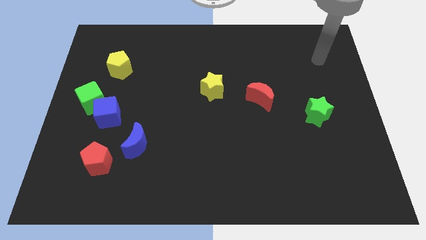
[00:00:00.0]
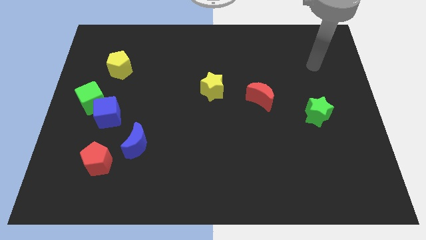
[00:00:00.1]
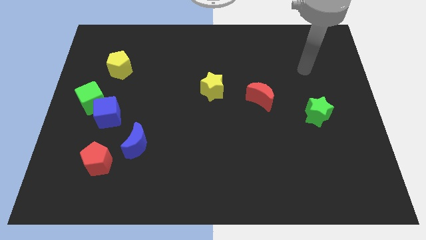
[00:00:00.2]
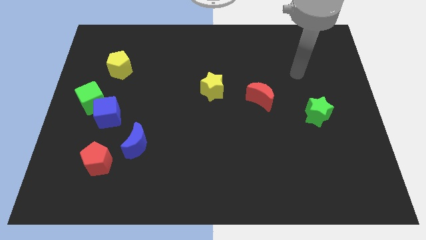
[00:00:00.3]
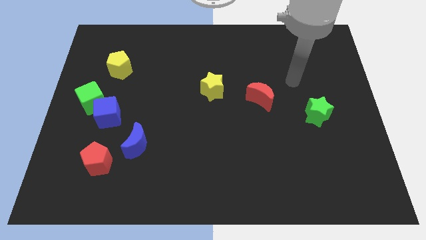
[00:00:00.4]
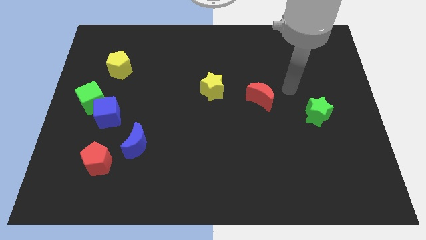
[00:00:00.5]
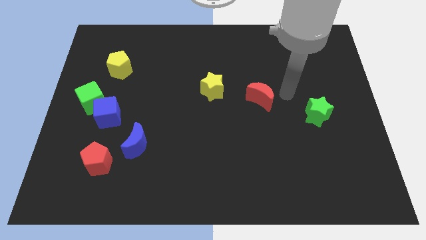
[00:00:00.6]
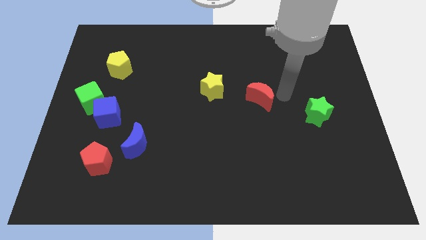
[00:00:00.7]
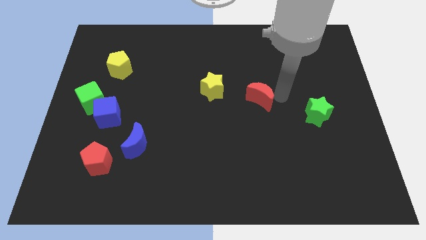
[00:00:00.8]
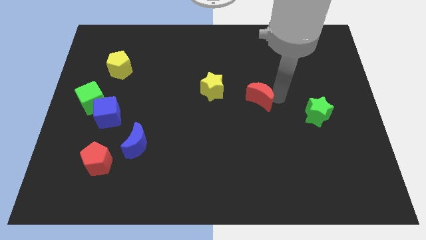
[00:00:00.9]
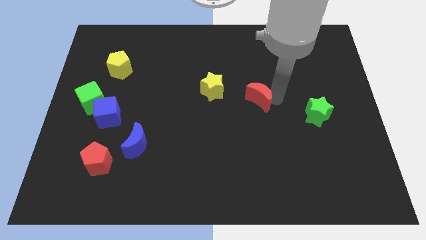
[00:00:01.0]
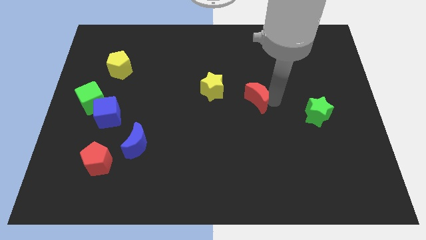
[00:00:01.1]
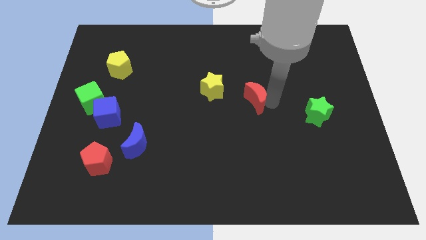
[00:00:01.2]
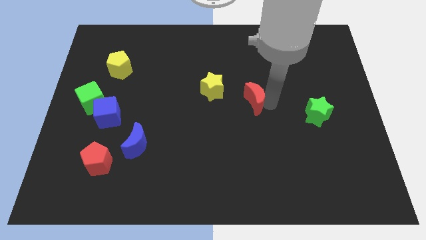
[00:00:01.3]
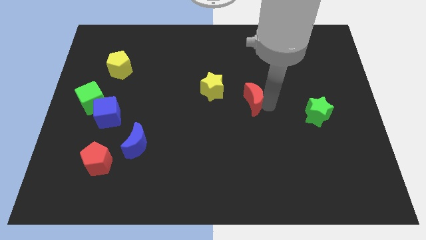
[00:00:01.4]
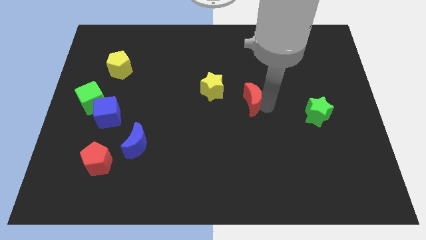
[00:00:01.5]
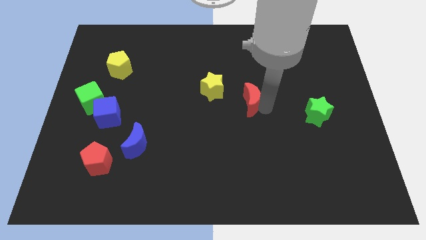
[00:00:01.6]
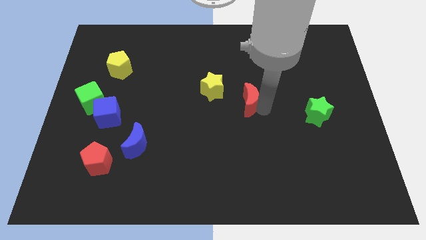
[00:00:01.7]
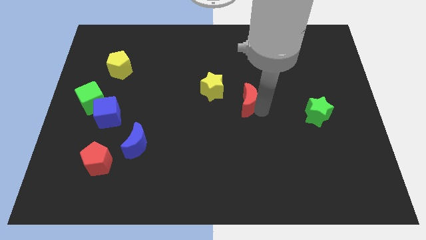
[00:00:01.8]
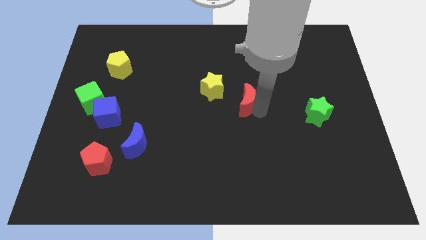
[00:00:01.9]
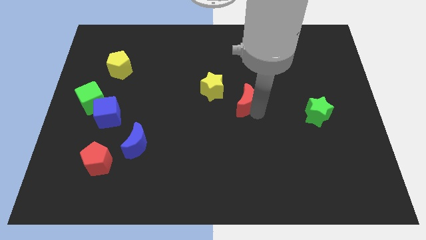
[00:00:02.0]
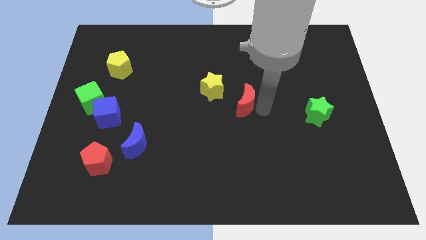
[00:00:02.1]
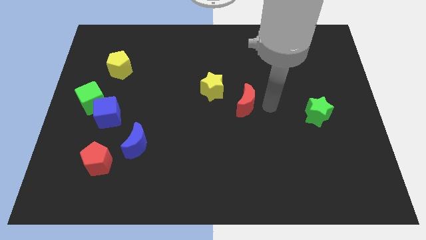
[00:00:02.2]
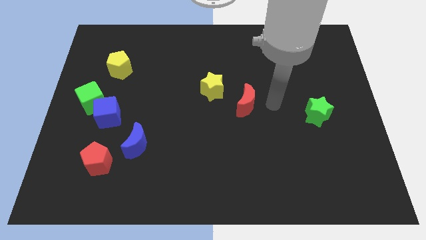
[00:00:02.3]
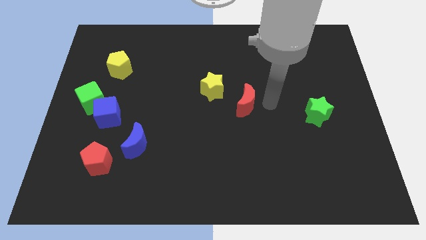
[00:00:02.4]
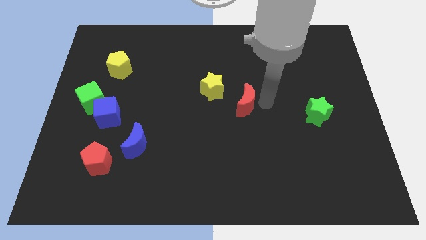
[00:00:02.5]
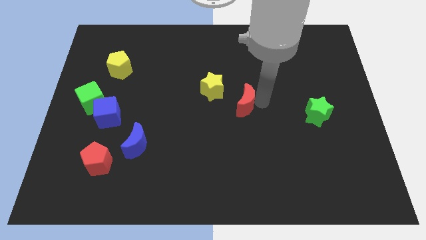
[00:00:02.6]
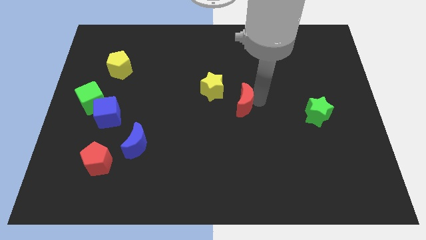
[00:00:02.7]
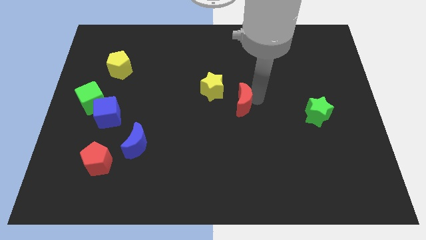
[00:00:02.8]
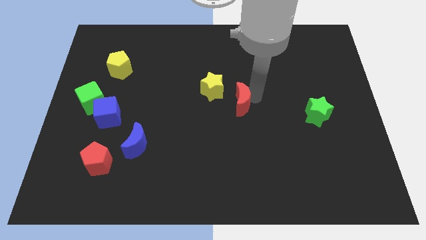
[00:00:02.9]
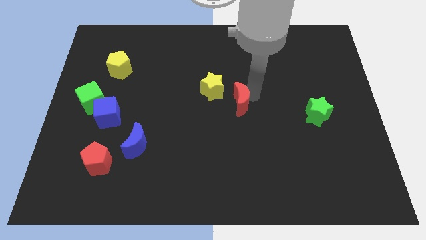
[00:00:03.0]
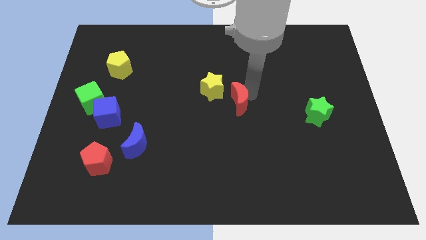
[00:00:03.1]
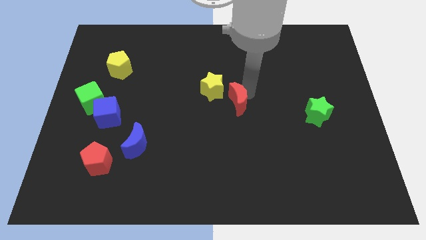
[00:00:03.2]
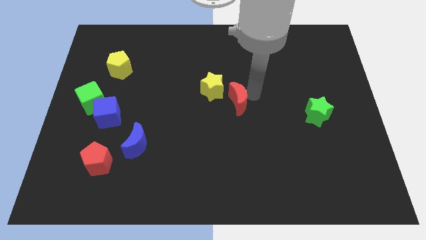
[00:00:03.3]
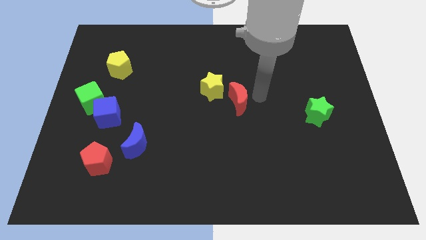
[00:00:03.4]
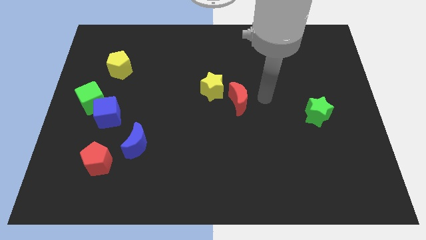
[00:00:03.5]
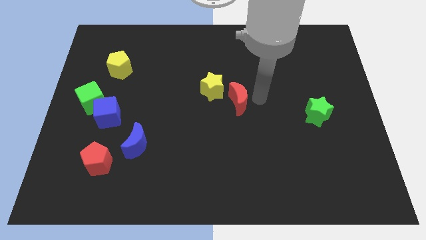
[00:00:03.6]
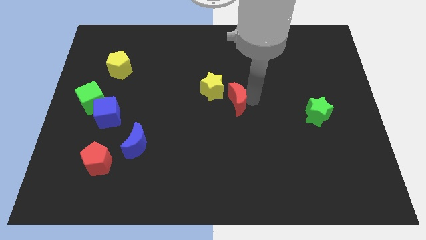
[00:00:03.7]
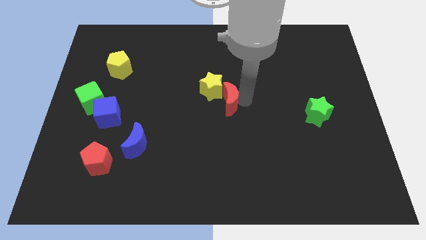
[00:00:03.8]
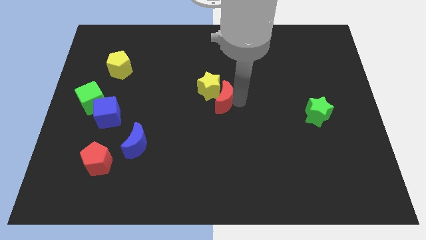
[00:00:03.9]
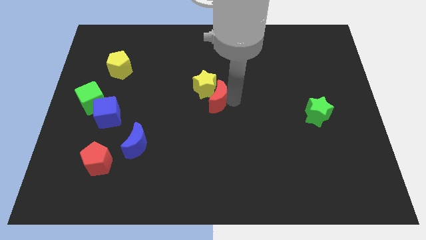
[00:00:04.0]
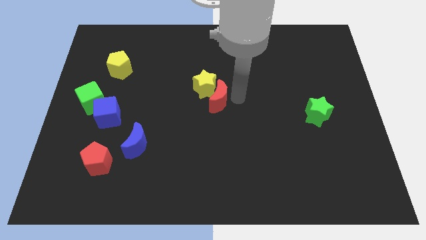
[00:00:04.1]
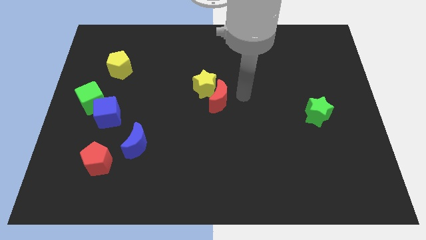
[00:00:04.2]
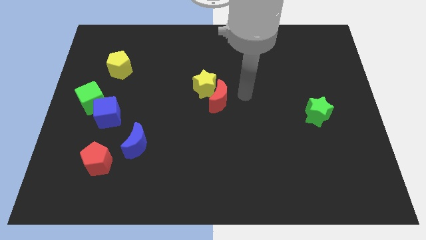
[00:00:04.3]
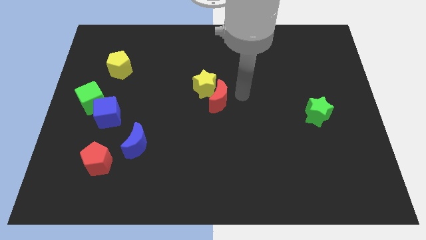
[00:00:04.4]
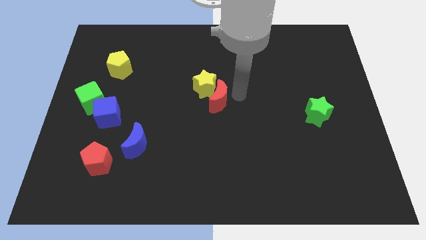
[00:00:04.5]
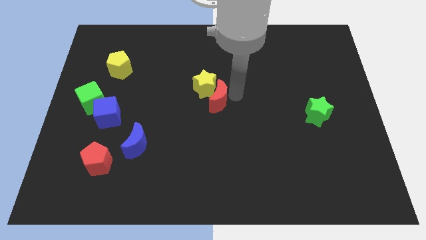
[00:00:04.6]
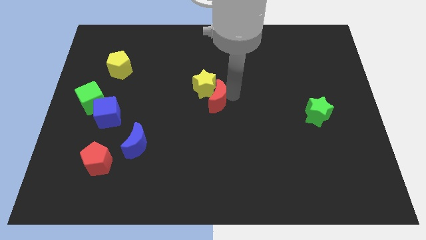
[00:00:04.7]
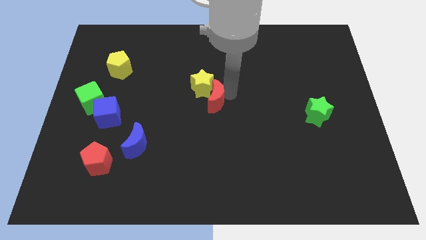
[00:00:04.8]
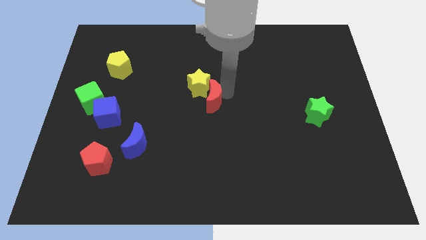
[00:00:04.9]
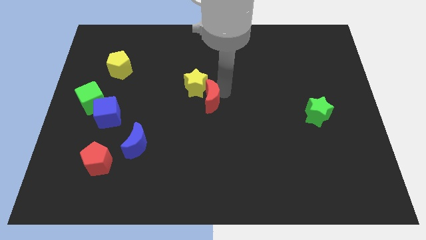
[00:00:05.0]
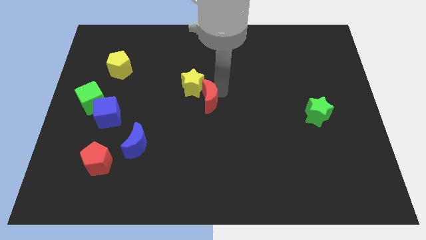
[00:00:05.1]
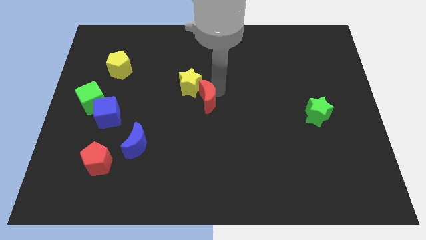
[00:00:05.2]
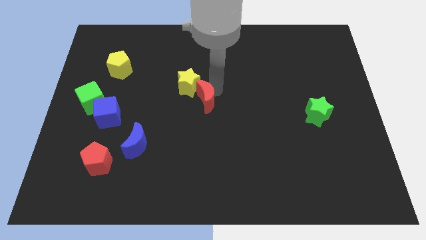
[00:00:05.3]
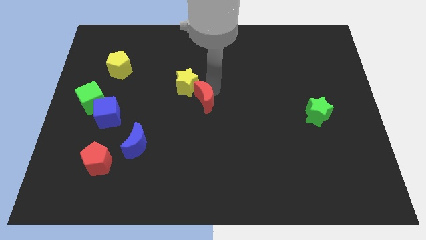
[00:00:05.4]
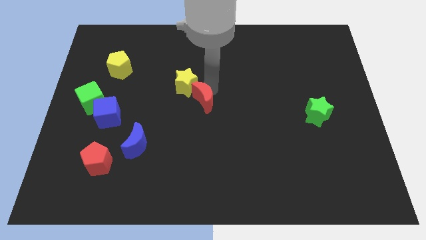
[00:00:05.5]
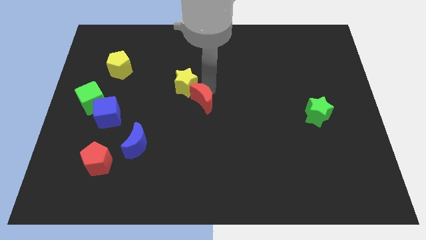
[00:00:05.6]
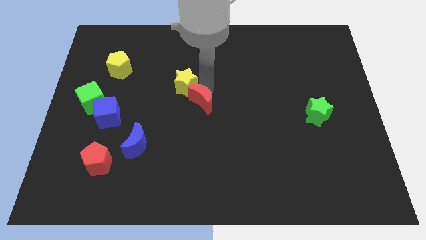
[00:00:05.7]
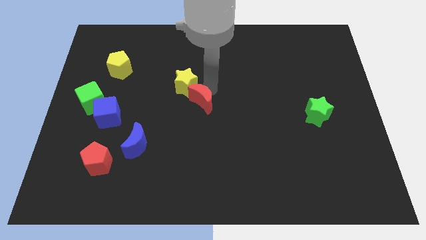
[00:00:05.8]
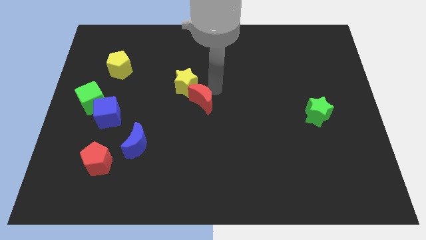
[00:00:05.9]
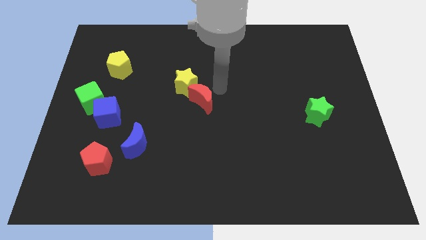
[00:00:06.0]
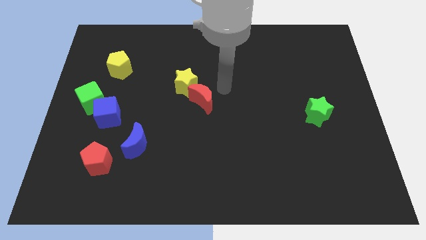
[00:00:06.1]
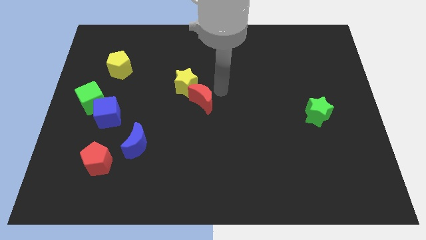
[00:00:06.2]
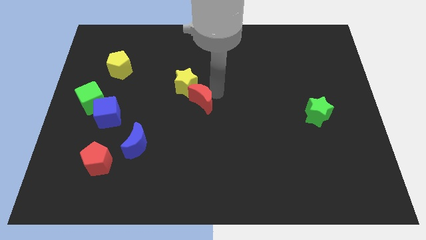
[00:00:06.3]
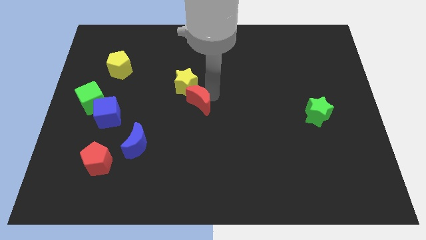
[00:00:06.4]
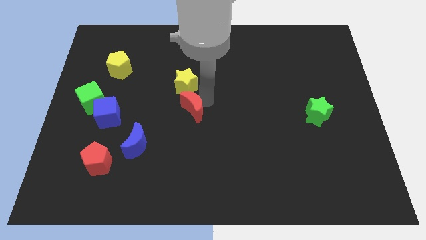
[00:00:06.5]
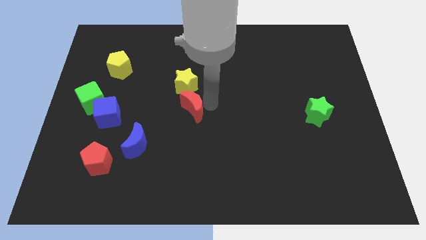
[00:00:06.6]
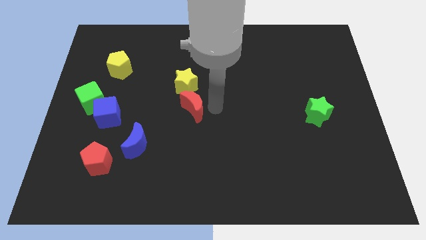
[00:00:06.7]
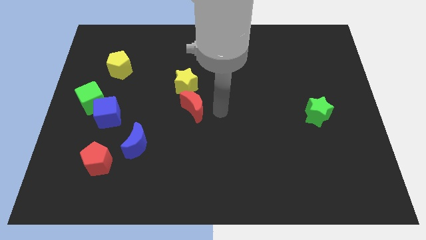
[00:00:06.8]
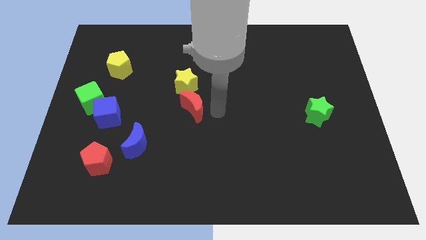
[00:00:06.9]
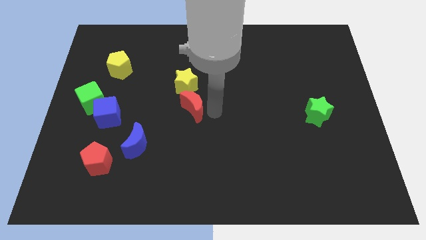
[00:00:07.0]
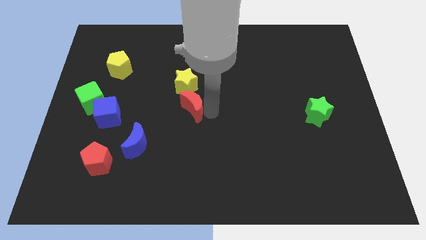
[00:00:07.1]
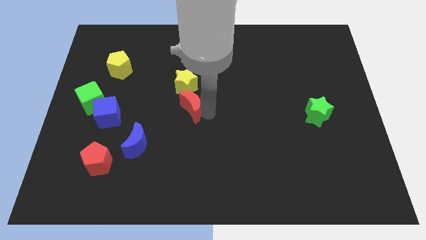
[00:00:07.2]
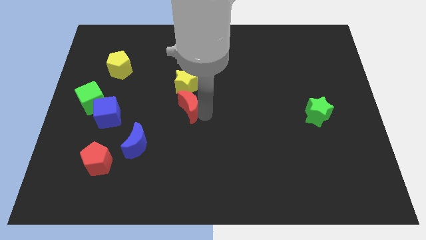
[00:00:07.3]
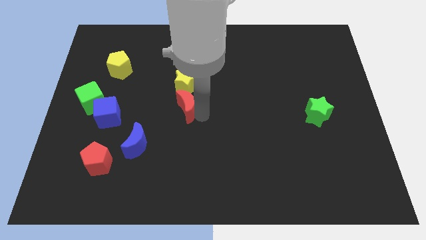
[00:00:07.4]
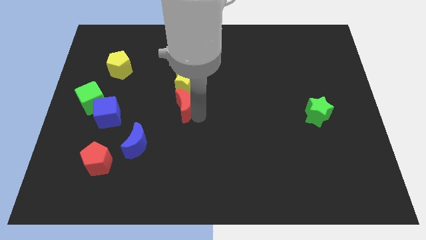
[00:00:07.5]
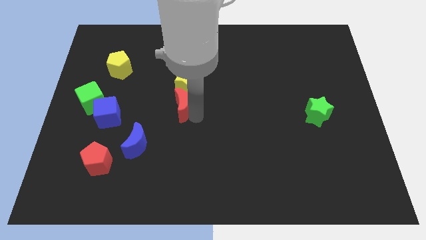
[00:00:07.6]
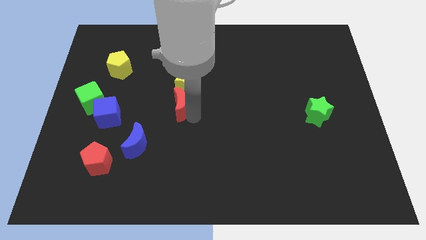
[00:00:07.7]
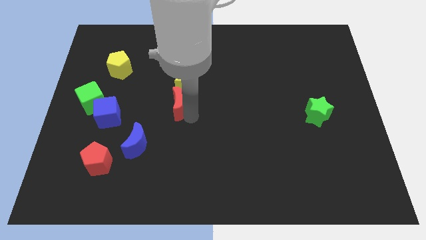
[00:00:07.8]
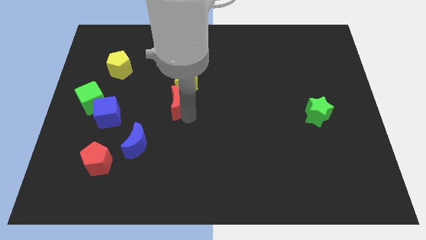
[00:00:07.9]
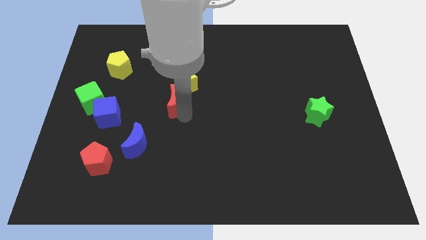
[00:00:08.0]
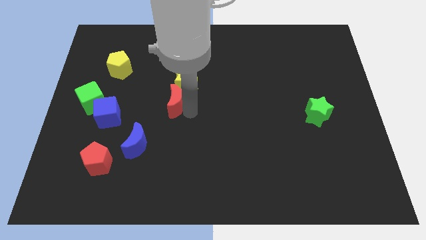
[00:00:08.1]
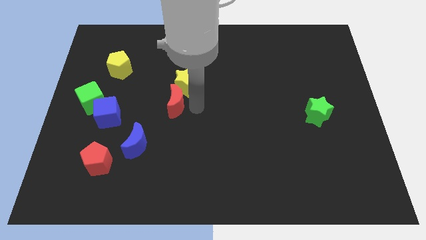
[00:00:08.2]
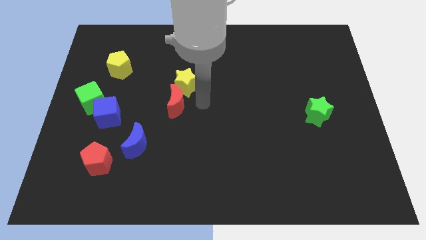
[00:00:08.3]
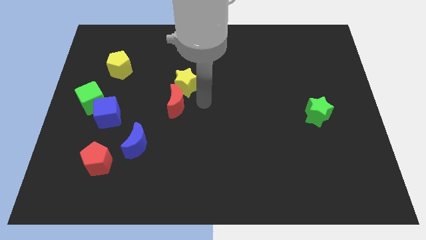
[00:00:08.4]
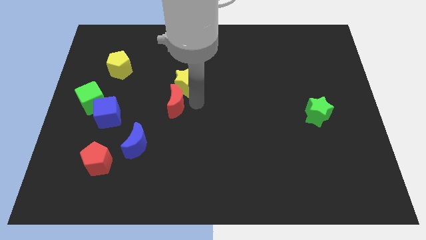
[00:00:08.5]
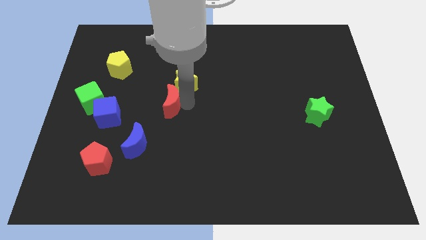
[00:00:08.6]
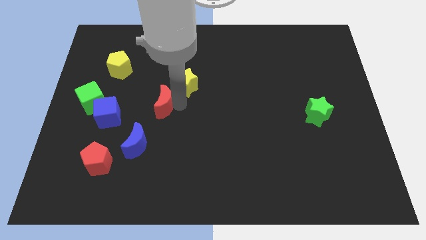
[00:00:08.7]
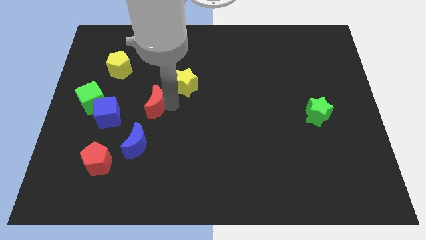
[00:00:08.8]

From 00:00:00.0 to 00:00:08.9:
put the red moon above the blue moon
